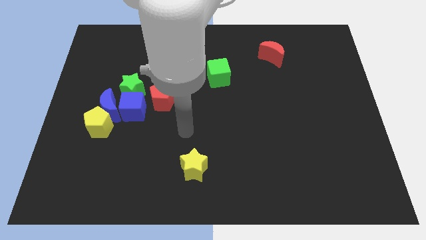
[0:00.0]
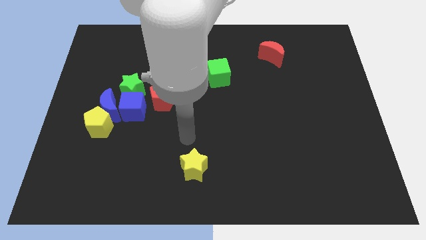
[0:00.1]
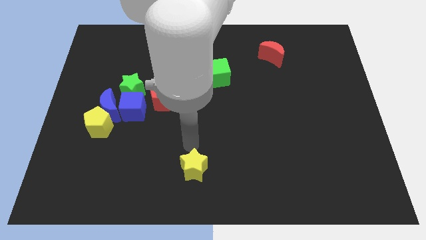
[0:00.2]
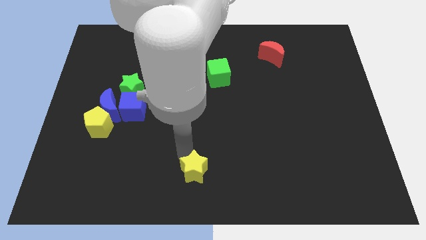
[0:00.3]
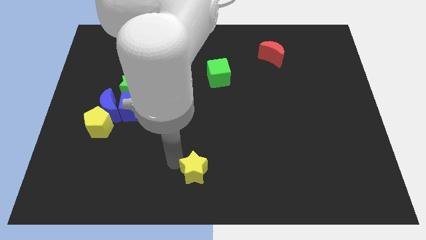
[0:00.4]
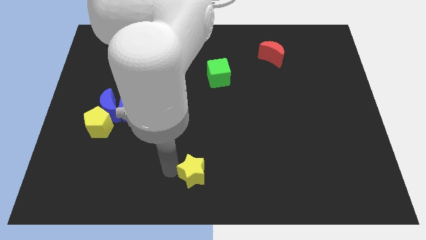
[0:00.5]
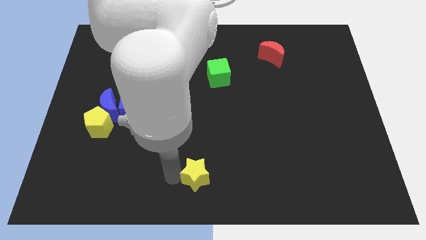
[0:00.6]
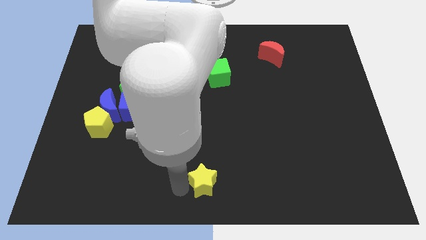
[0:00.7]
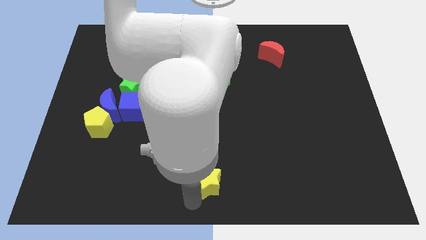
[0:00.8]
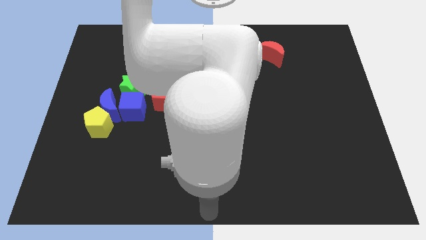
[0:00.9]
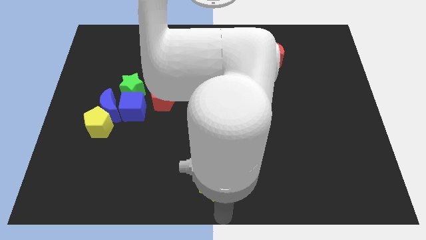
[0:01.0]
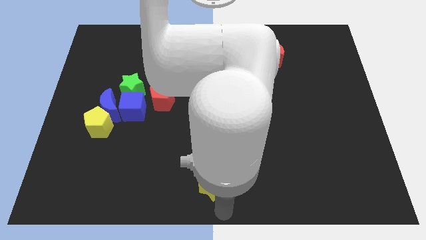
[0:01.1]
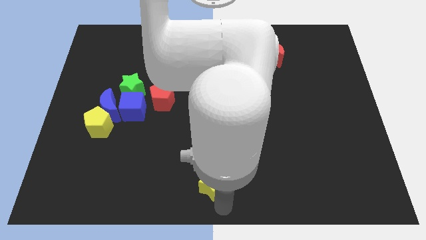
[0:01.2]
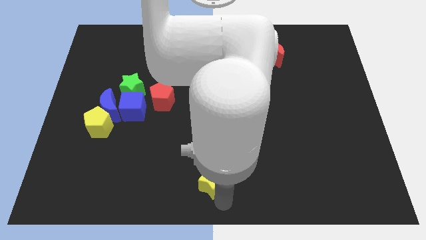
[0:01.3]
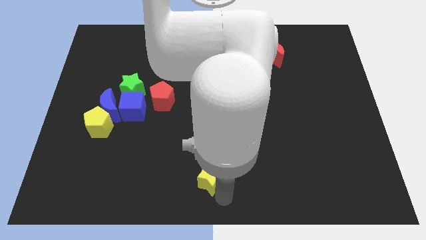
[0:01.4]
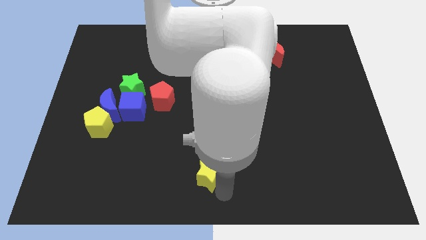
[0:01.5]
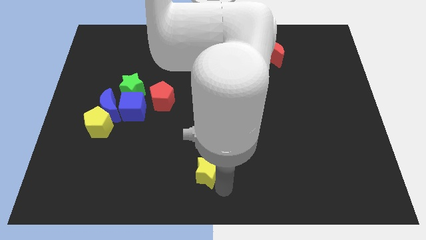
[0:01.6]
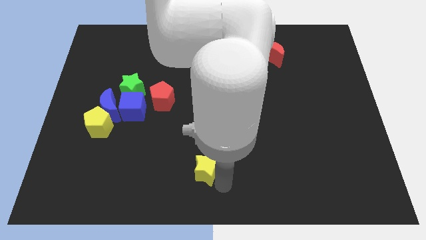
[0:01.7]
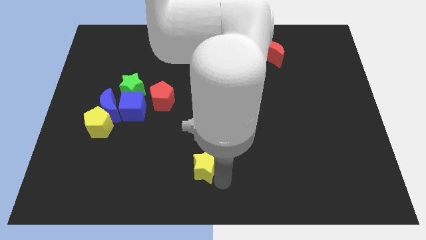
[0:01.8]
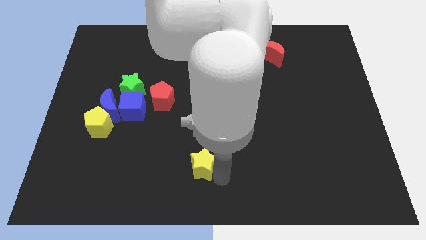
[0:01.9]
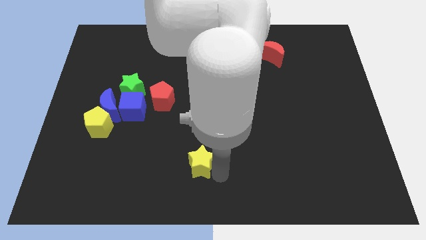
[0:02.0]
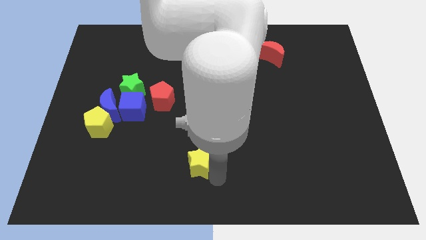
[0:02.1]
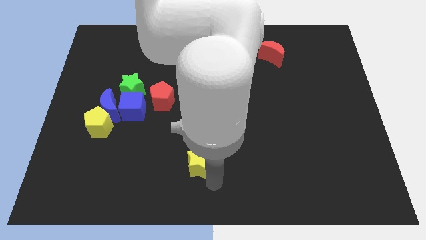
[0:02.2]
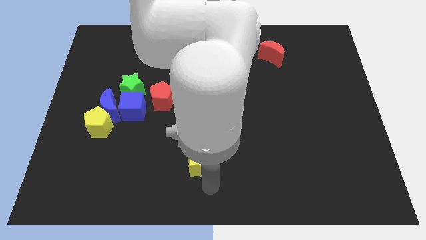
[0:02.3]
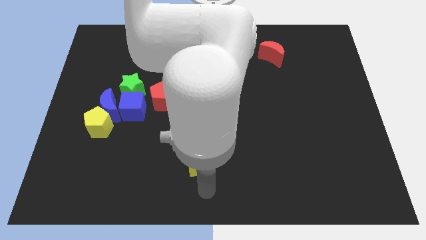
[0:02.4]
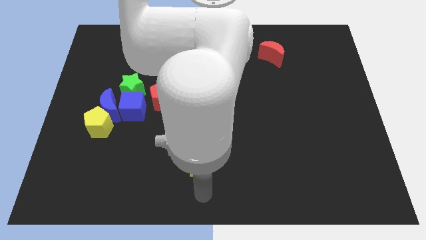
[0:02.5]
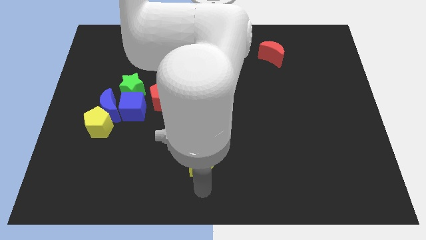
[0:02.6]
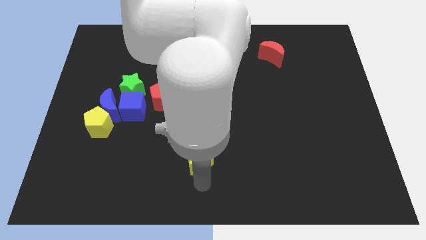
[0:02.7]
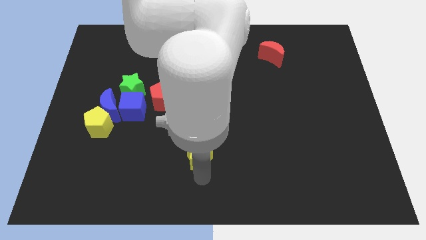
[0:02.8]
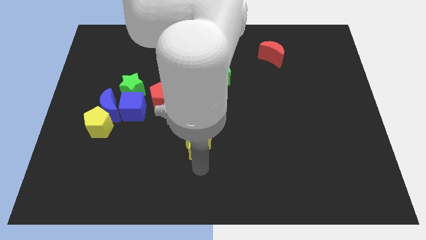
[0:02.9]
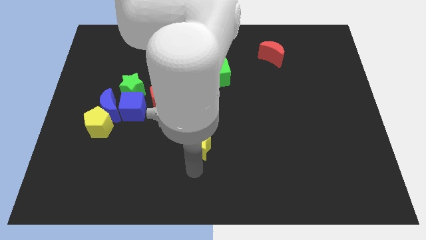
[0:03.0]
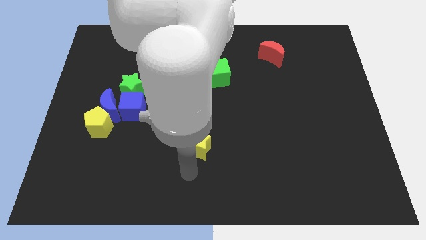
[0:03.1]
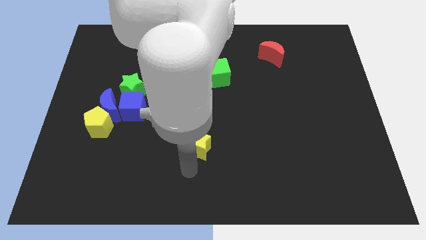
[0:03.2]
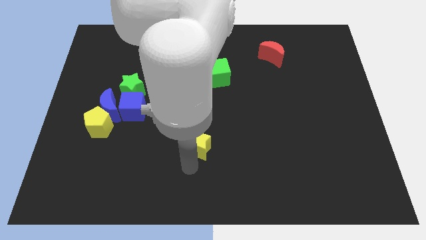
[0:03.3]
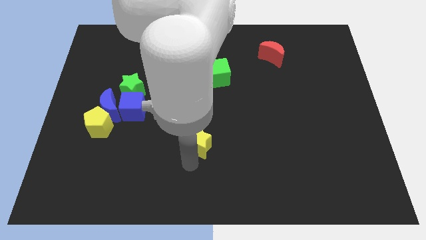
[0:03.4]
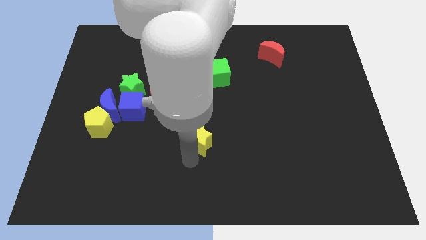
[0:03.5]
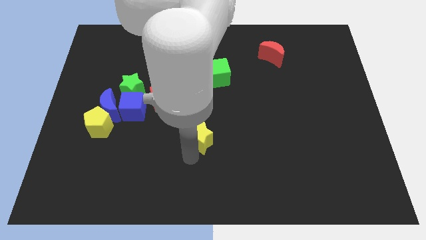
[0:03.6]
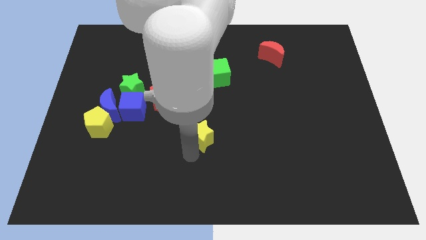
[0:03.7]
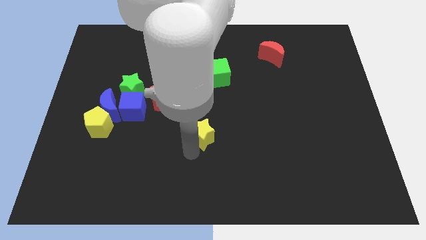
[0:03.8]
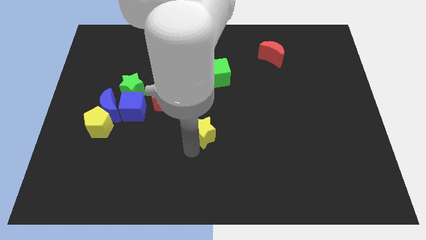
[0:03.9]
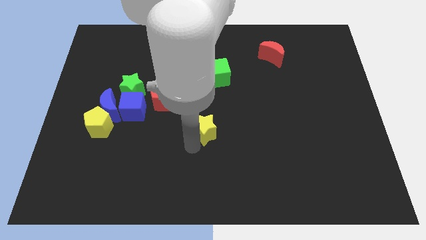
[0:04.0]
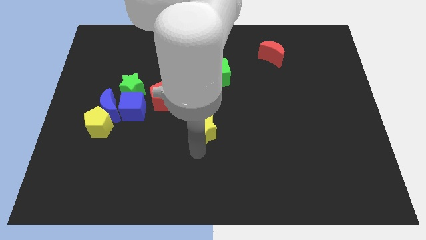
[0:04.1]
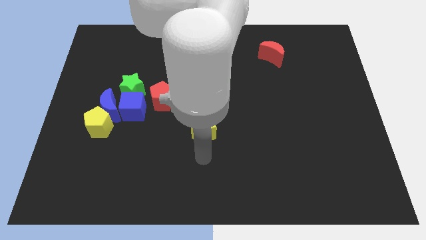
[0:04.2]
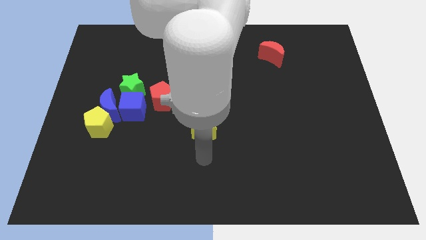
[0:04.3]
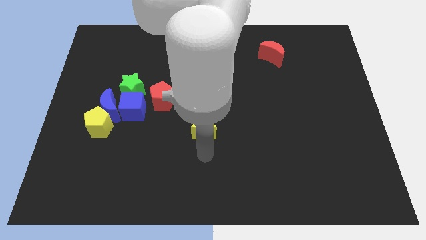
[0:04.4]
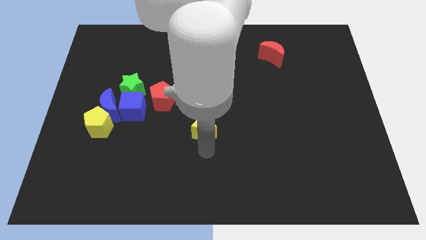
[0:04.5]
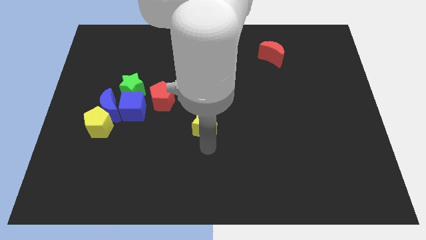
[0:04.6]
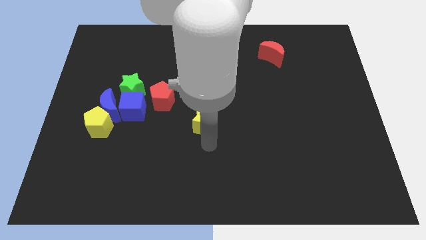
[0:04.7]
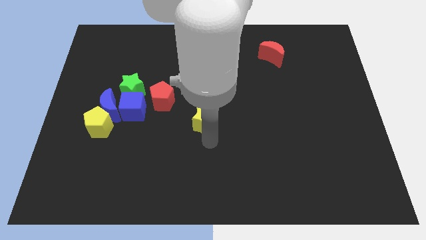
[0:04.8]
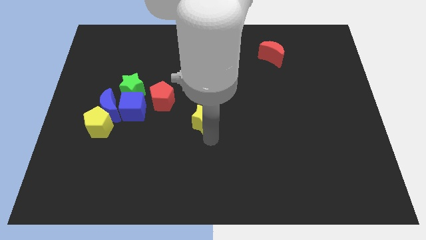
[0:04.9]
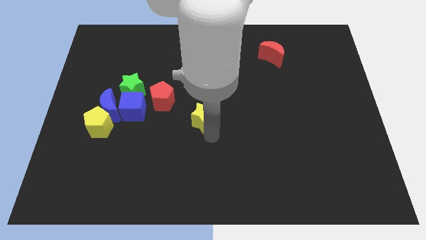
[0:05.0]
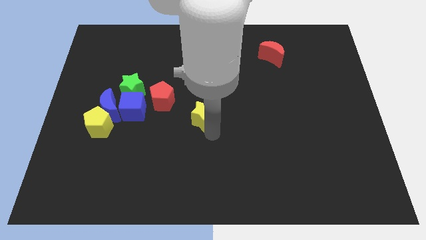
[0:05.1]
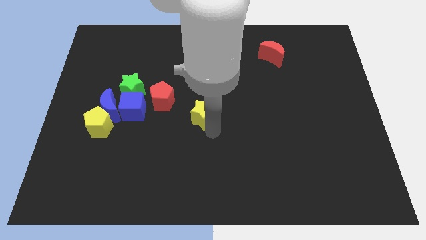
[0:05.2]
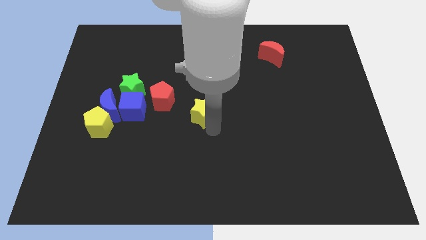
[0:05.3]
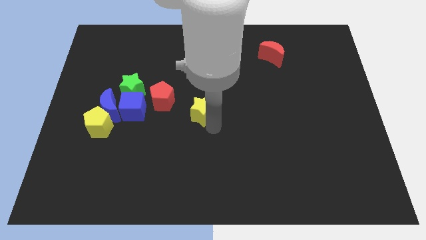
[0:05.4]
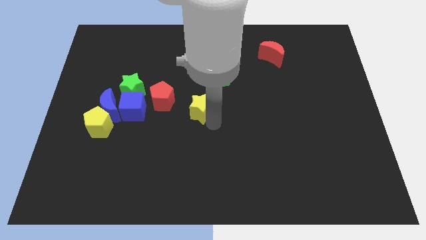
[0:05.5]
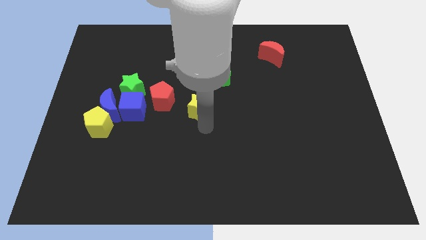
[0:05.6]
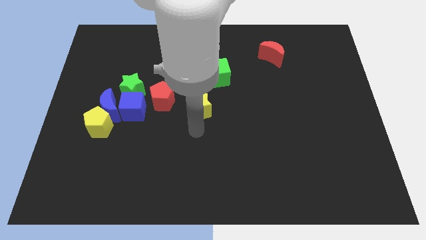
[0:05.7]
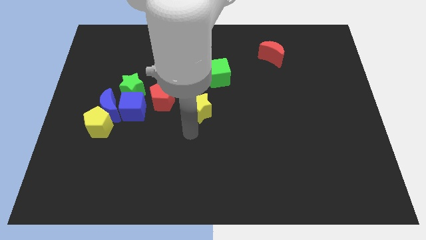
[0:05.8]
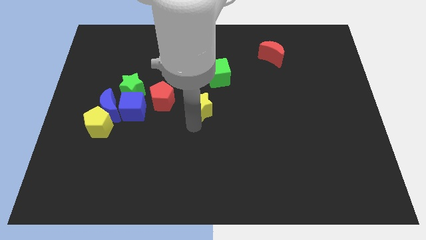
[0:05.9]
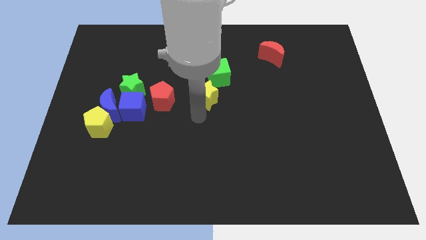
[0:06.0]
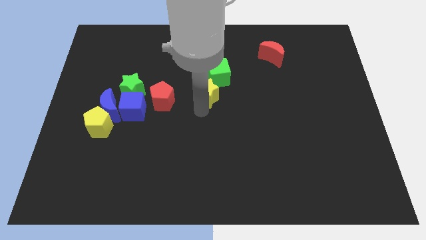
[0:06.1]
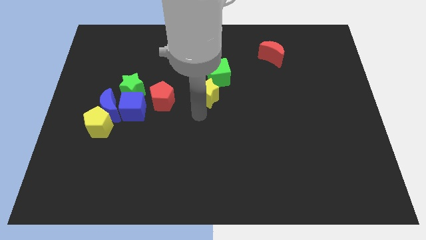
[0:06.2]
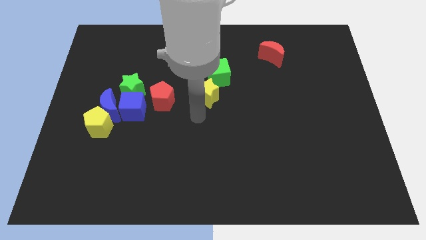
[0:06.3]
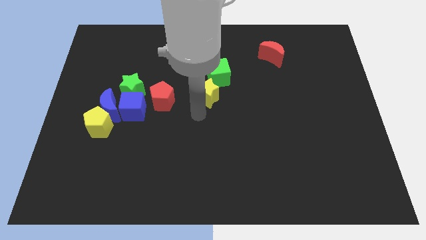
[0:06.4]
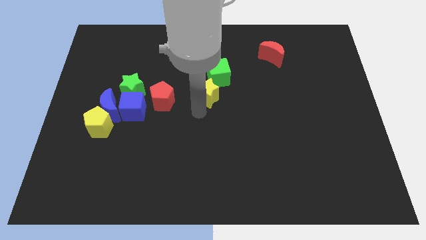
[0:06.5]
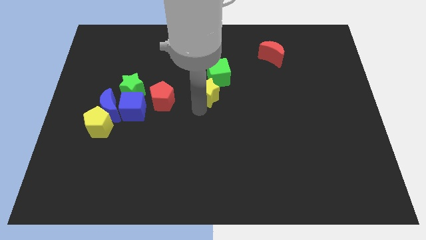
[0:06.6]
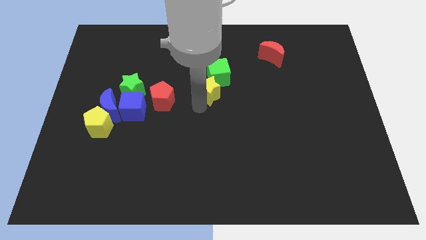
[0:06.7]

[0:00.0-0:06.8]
put the yellow star to the green cube
